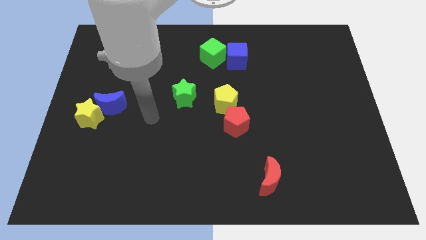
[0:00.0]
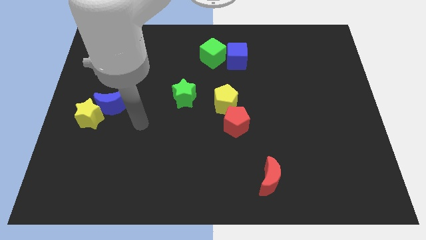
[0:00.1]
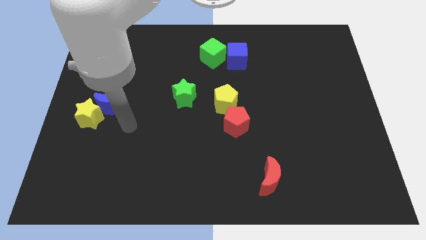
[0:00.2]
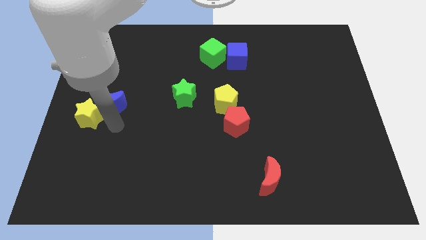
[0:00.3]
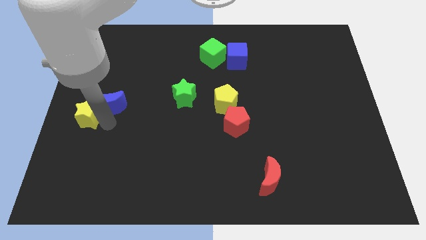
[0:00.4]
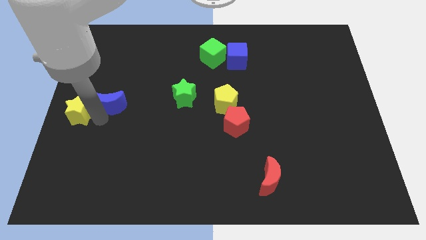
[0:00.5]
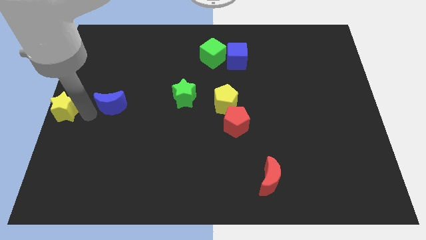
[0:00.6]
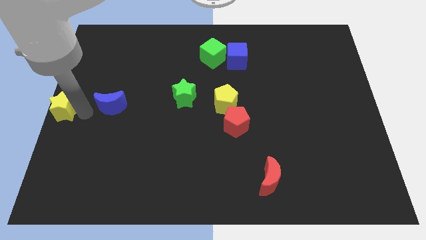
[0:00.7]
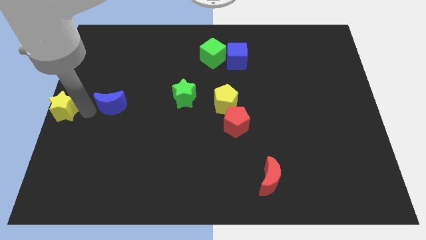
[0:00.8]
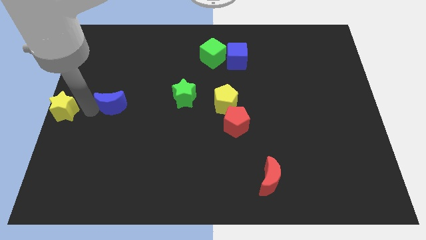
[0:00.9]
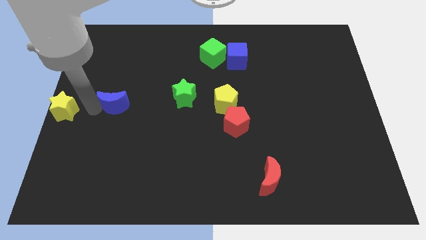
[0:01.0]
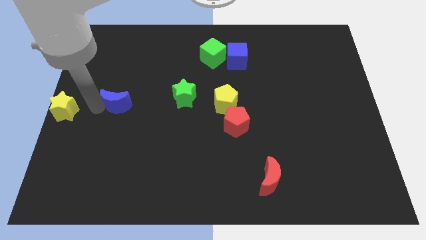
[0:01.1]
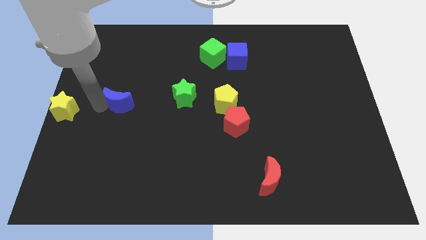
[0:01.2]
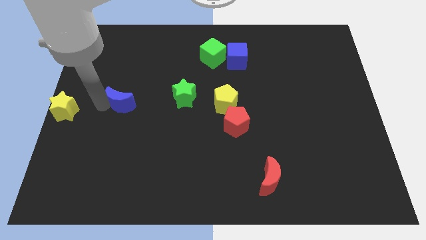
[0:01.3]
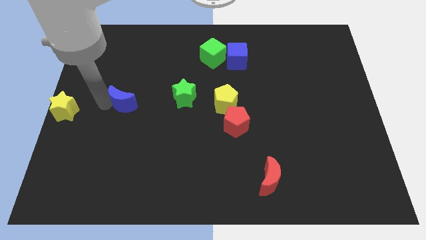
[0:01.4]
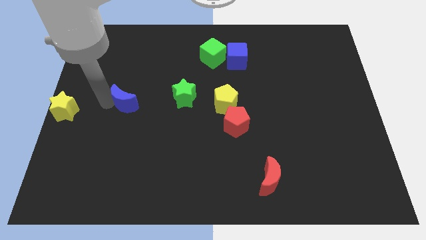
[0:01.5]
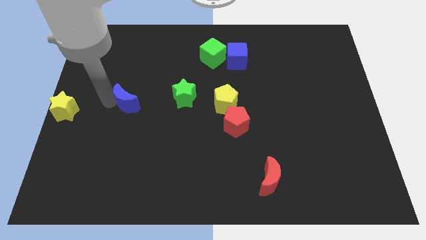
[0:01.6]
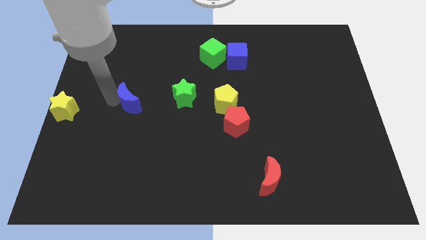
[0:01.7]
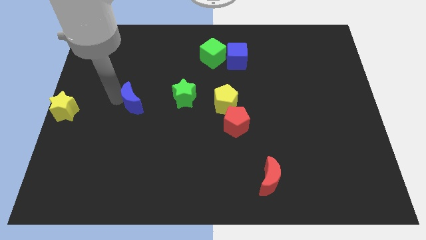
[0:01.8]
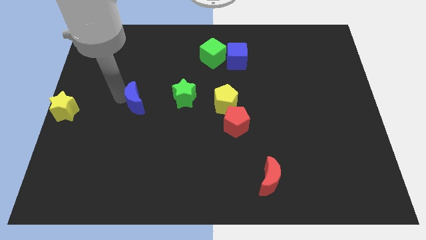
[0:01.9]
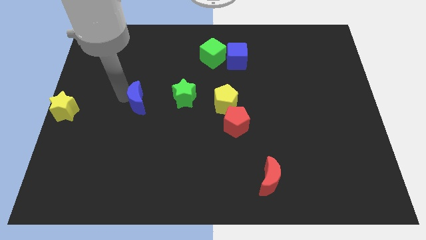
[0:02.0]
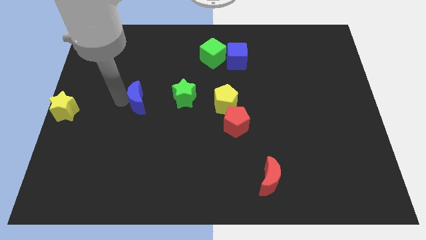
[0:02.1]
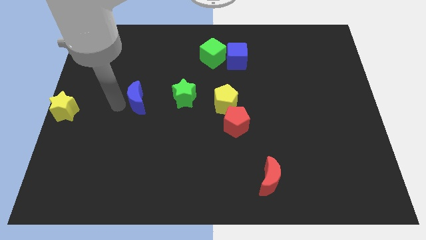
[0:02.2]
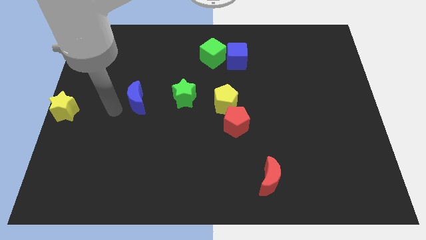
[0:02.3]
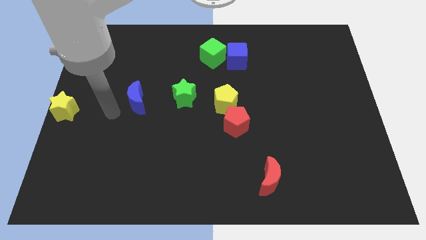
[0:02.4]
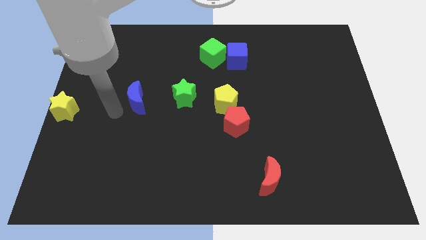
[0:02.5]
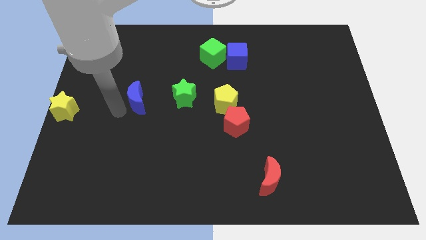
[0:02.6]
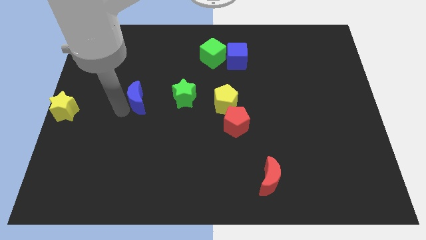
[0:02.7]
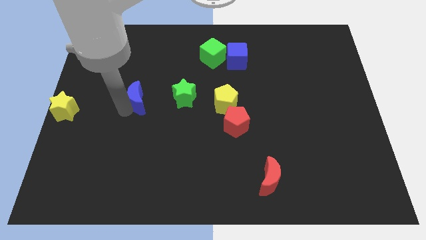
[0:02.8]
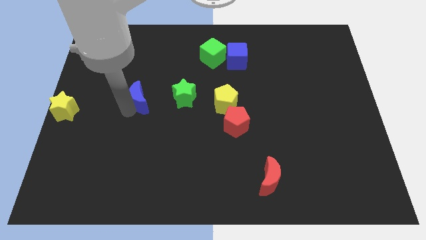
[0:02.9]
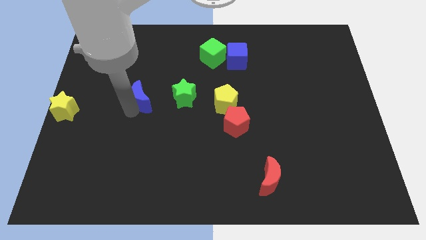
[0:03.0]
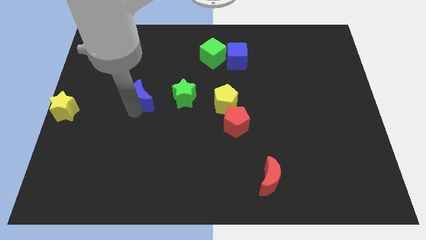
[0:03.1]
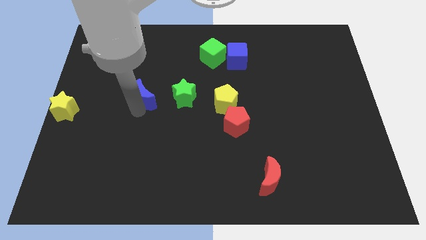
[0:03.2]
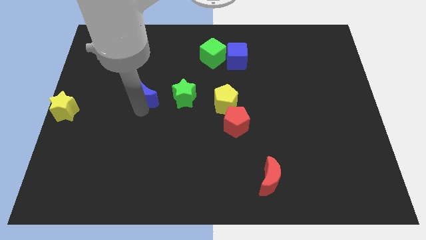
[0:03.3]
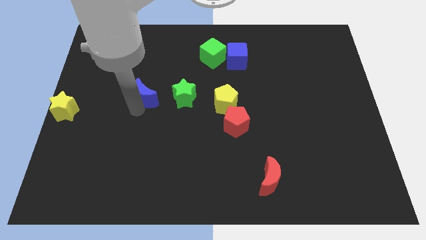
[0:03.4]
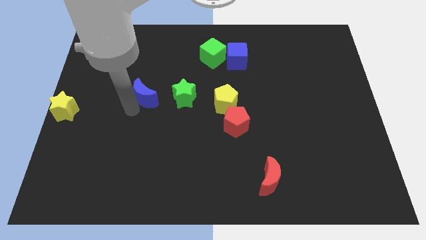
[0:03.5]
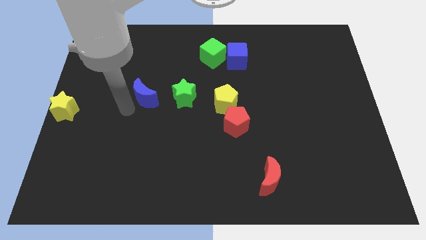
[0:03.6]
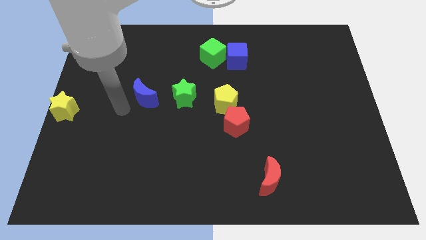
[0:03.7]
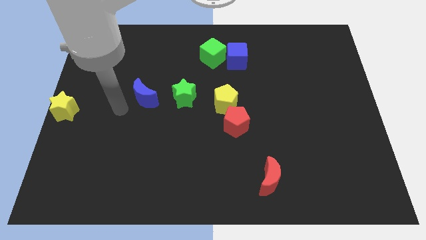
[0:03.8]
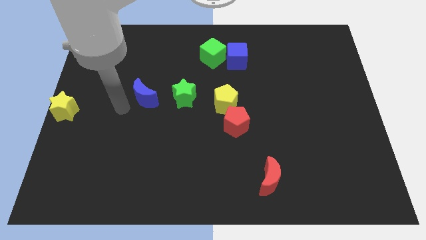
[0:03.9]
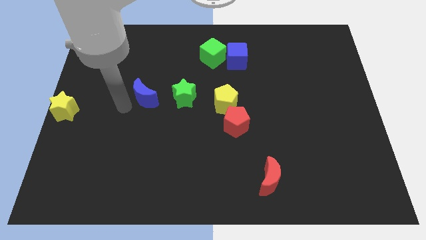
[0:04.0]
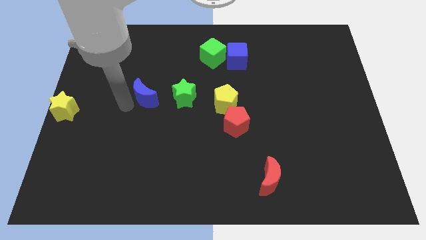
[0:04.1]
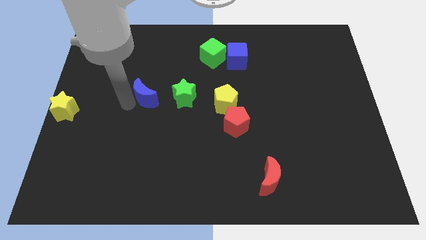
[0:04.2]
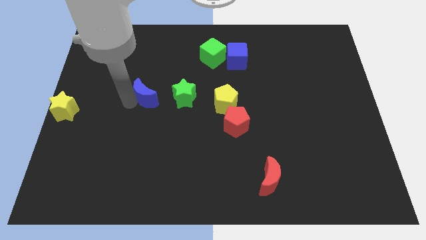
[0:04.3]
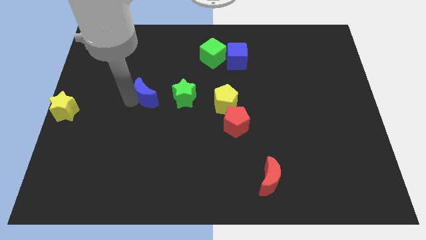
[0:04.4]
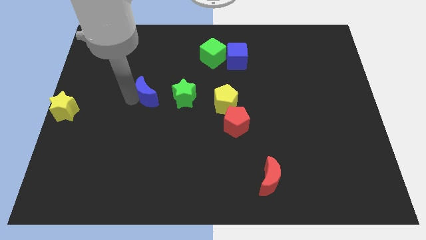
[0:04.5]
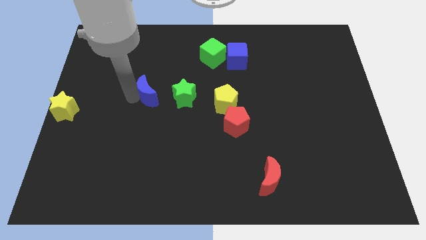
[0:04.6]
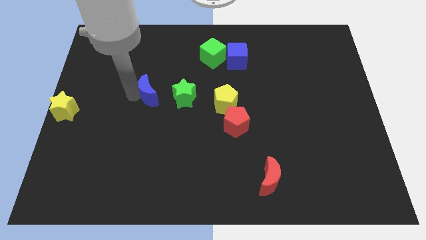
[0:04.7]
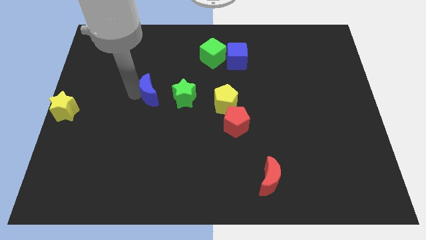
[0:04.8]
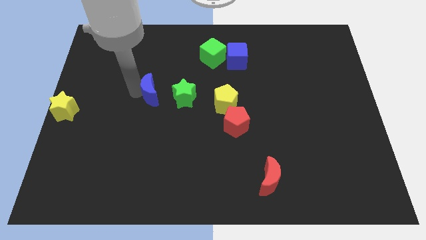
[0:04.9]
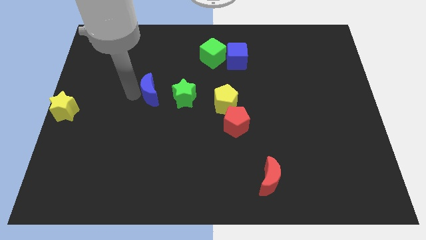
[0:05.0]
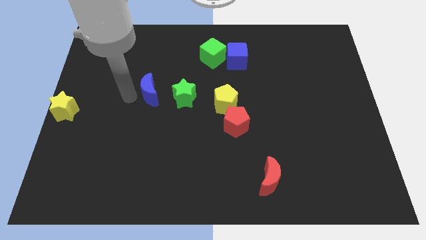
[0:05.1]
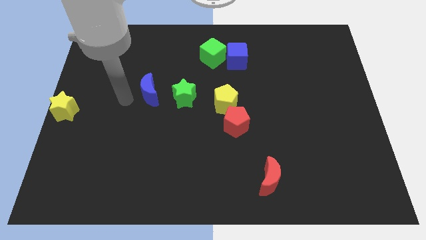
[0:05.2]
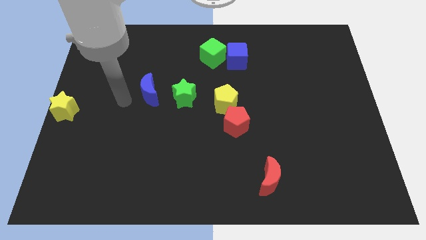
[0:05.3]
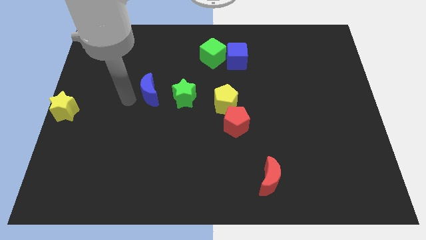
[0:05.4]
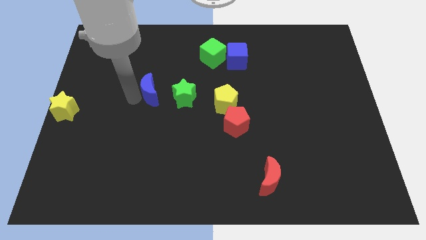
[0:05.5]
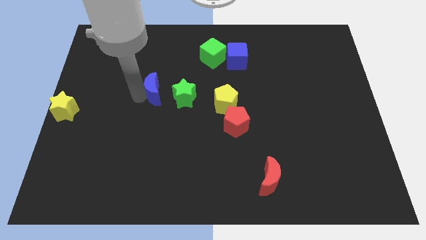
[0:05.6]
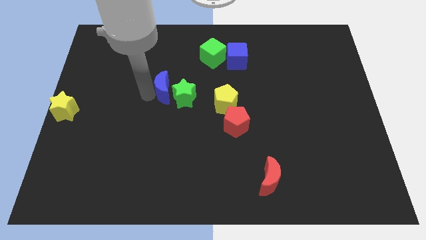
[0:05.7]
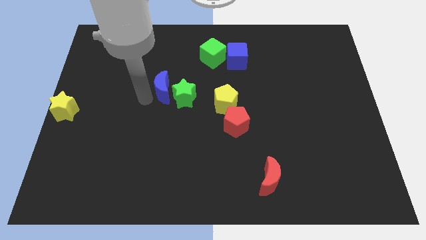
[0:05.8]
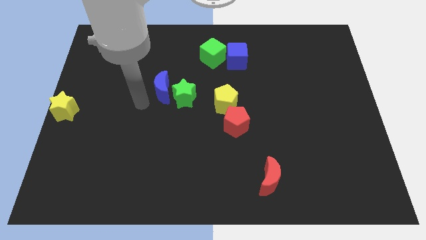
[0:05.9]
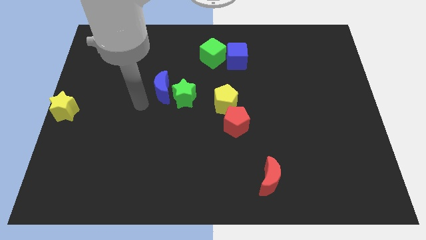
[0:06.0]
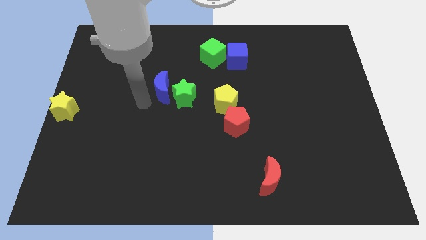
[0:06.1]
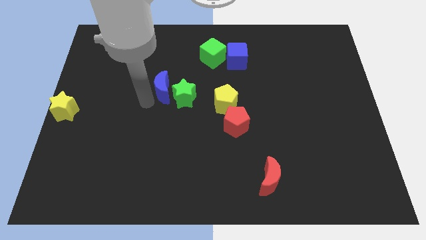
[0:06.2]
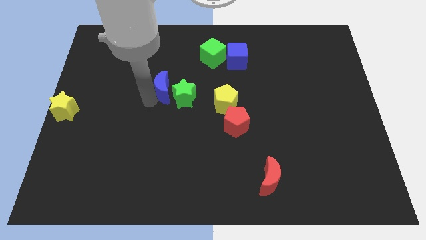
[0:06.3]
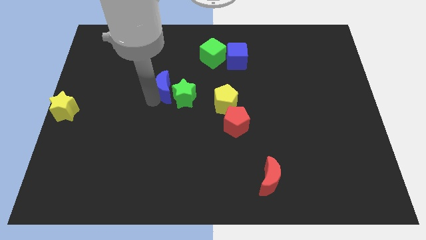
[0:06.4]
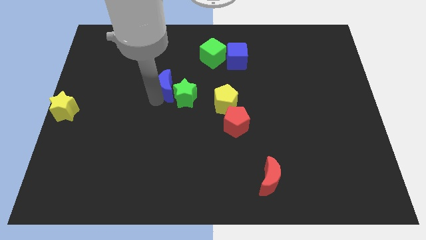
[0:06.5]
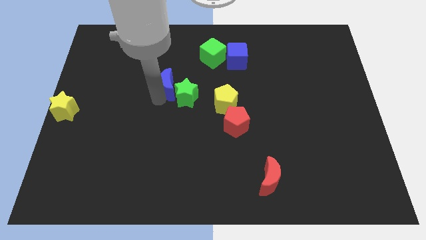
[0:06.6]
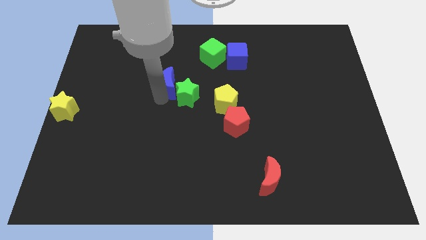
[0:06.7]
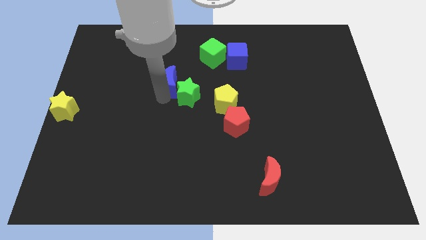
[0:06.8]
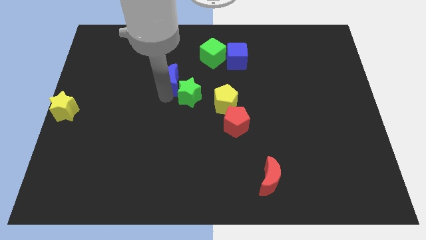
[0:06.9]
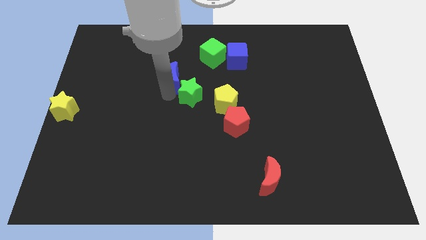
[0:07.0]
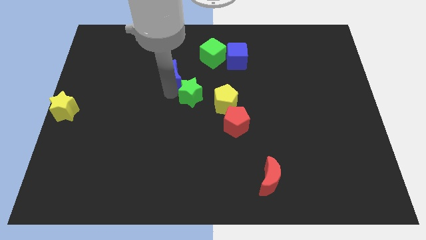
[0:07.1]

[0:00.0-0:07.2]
slide the blue moon to the bottom left side of the green cube

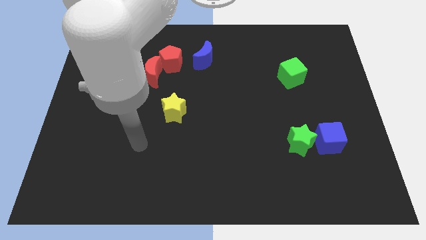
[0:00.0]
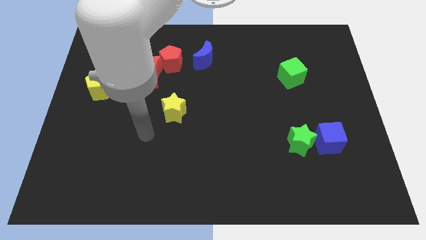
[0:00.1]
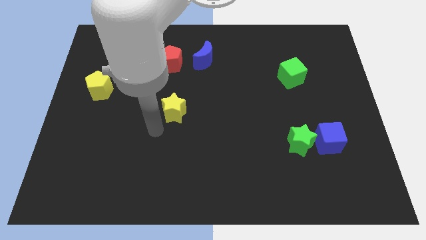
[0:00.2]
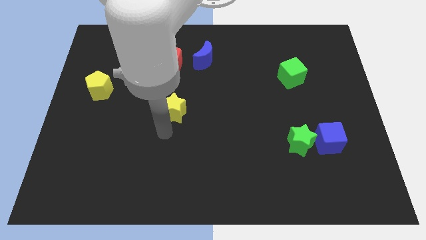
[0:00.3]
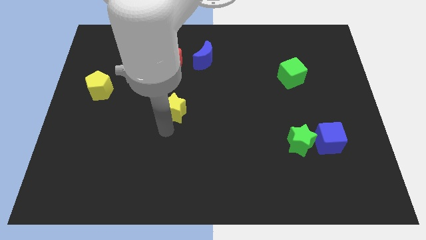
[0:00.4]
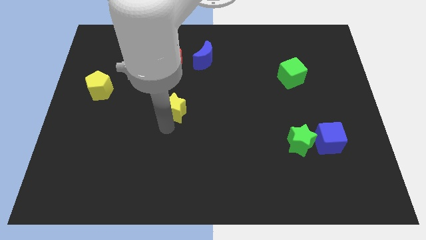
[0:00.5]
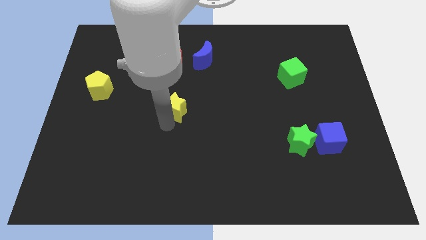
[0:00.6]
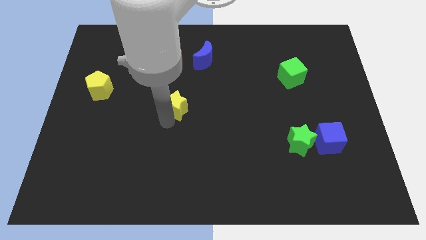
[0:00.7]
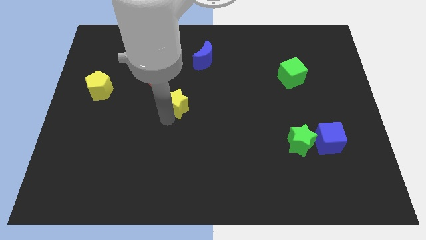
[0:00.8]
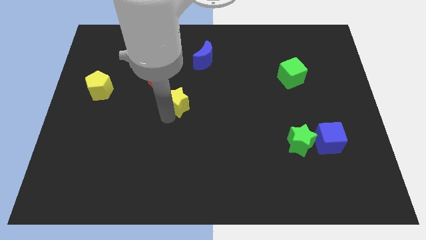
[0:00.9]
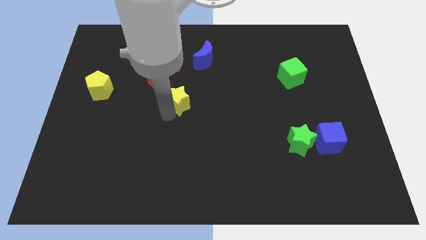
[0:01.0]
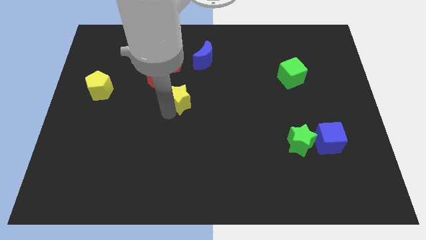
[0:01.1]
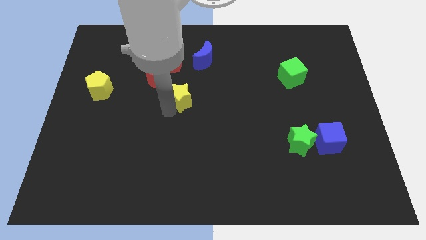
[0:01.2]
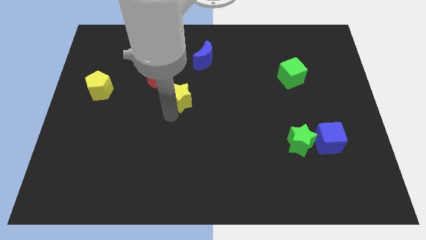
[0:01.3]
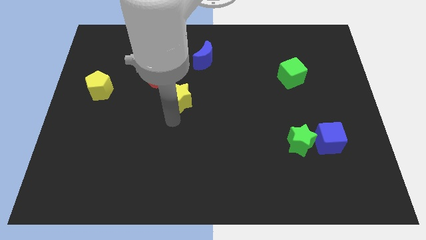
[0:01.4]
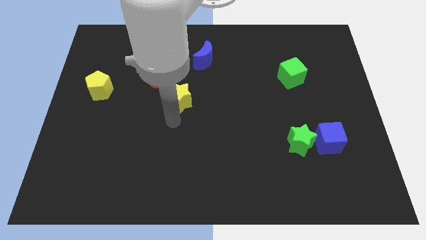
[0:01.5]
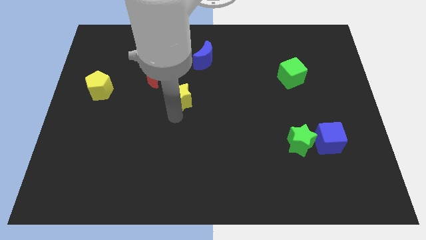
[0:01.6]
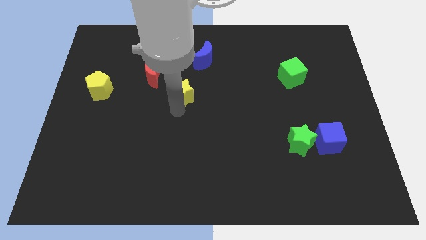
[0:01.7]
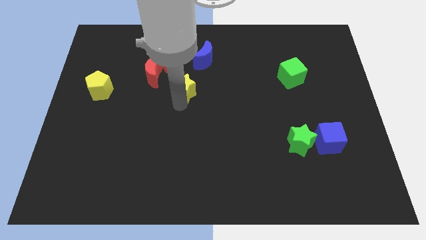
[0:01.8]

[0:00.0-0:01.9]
slide the yellow star to the bottom right of the red pentagon
